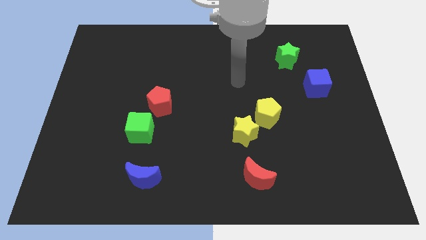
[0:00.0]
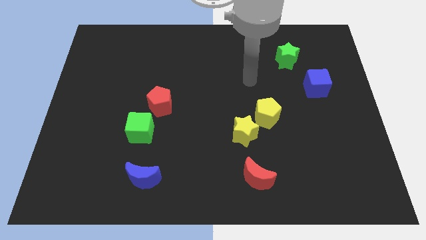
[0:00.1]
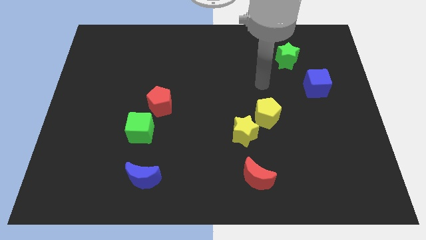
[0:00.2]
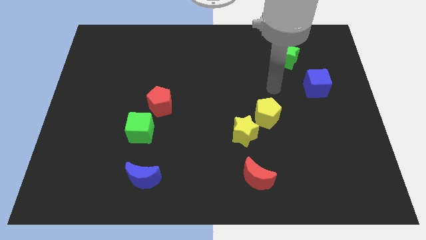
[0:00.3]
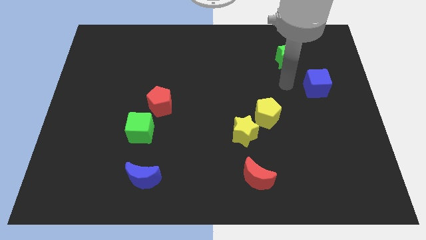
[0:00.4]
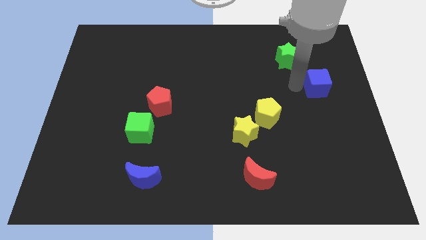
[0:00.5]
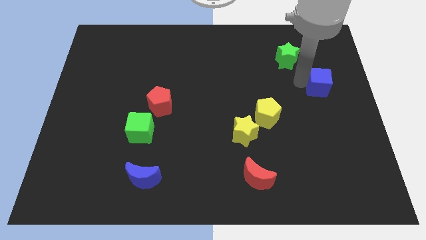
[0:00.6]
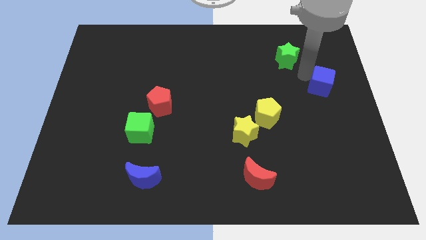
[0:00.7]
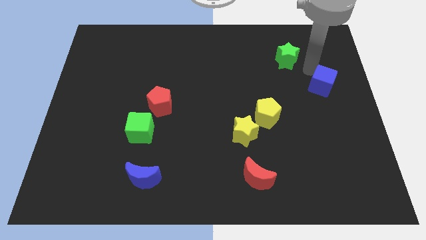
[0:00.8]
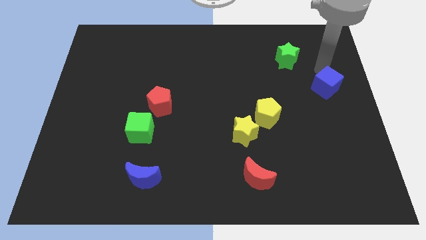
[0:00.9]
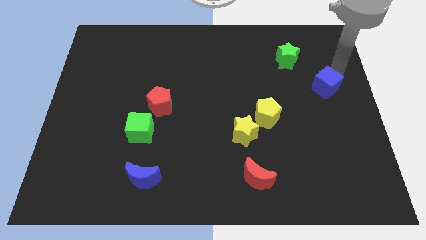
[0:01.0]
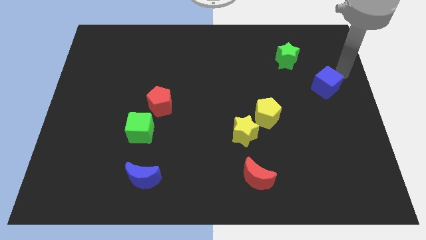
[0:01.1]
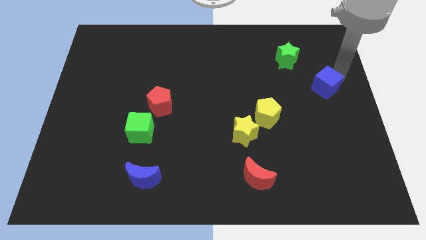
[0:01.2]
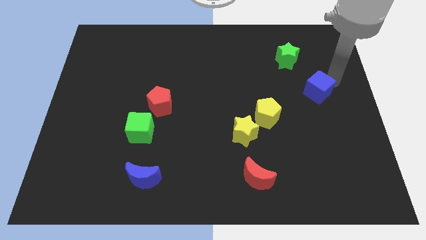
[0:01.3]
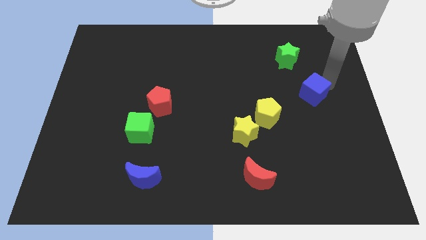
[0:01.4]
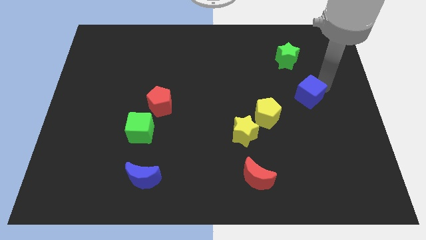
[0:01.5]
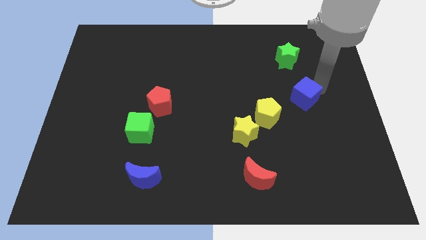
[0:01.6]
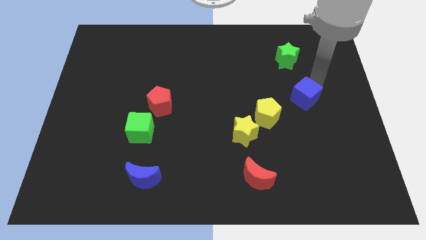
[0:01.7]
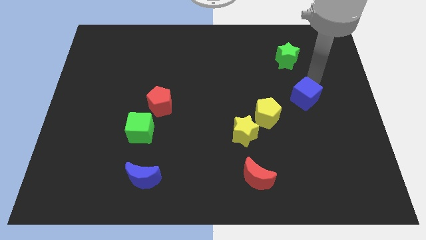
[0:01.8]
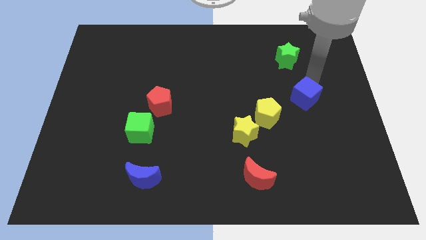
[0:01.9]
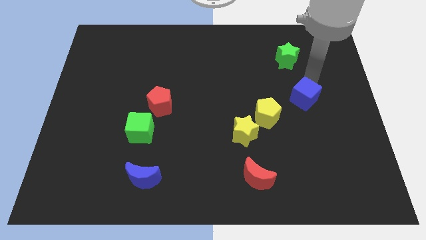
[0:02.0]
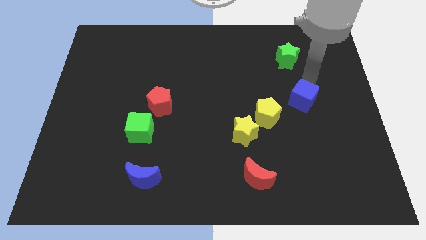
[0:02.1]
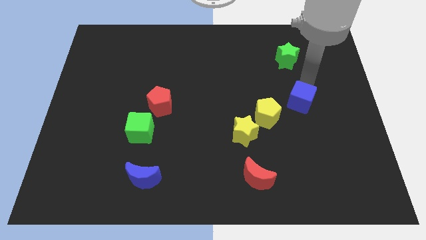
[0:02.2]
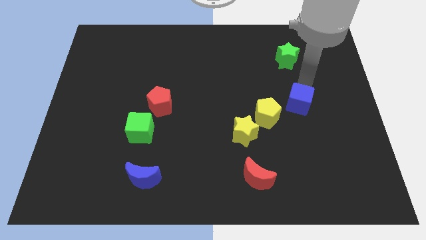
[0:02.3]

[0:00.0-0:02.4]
push the blue cube a little downwards and then left

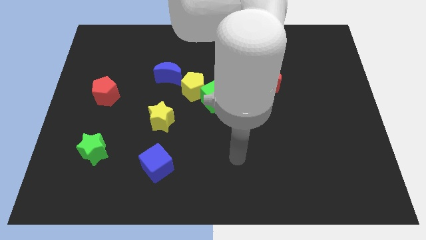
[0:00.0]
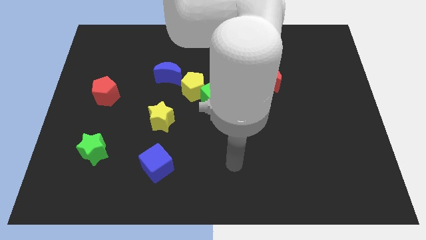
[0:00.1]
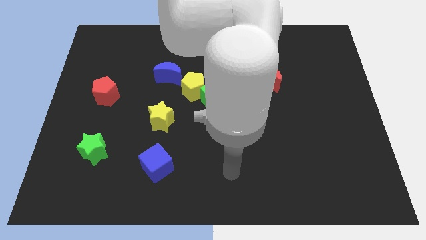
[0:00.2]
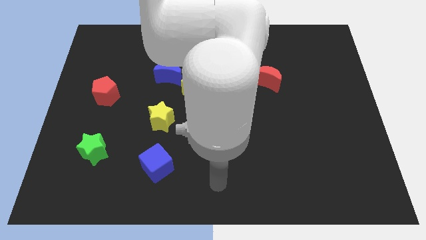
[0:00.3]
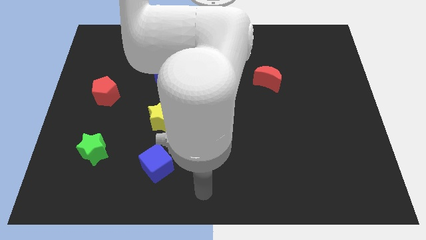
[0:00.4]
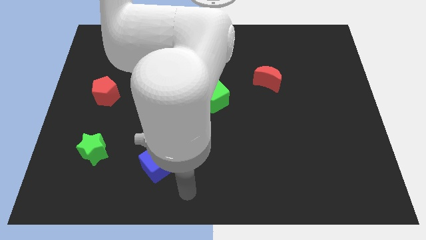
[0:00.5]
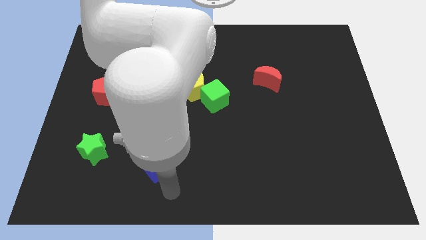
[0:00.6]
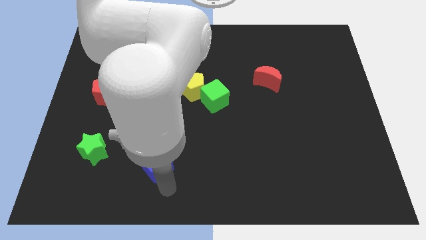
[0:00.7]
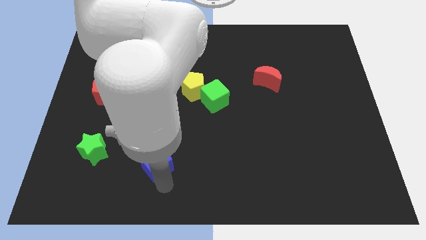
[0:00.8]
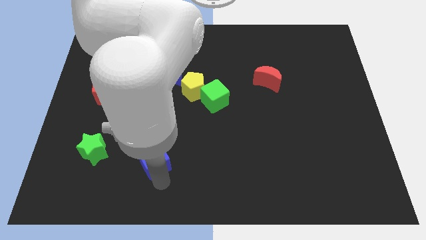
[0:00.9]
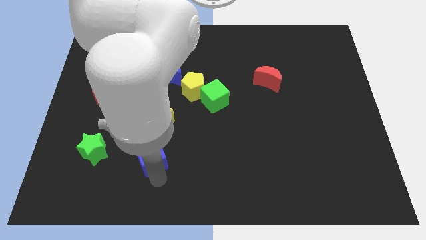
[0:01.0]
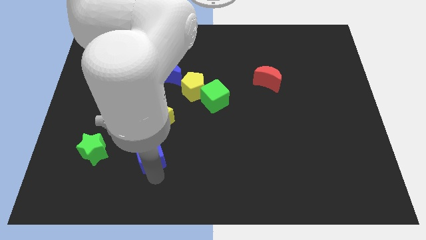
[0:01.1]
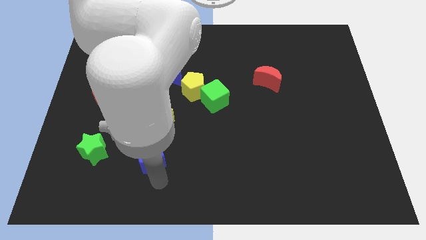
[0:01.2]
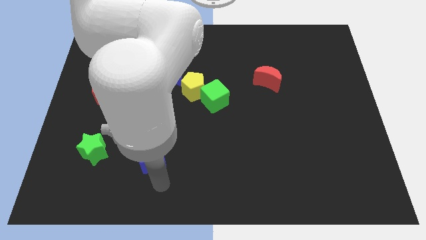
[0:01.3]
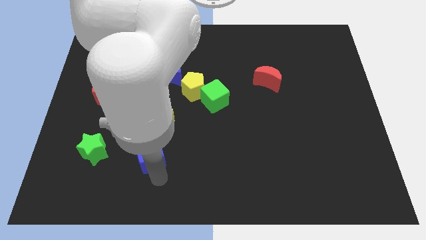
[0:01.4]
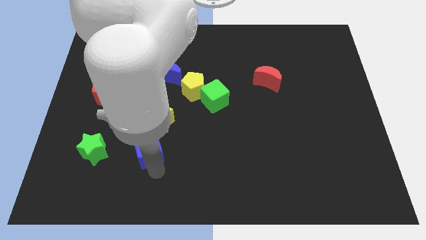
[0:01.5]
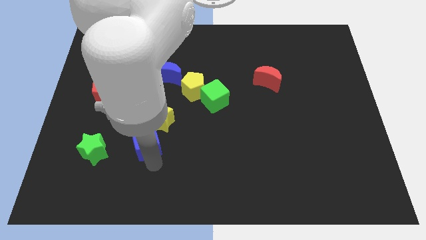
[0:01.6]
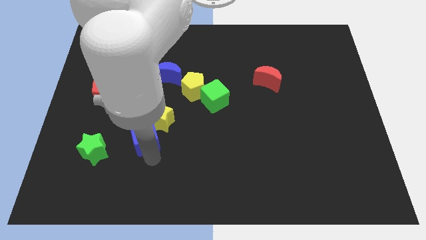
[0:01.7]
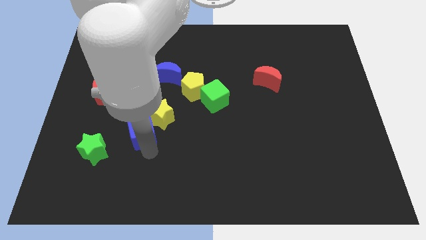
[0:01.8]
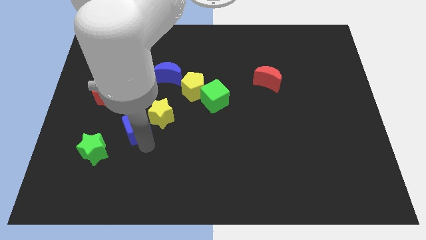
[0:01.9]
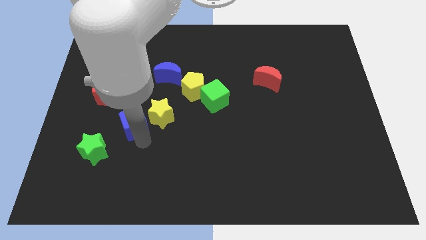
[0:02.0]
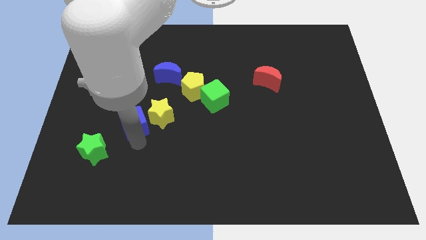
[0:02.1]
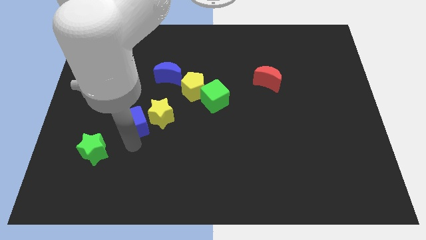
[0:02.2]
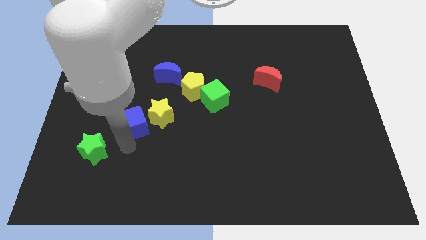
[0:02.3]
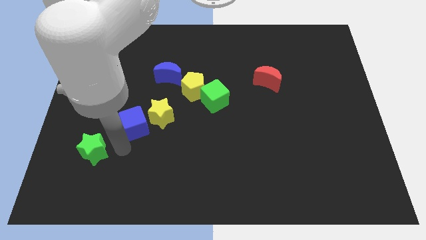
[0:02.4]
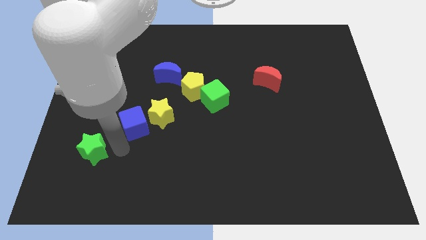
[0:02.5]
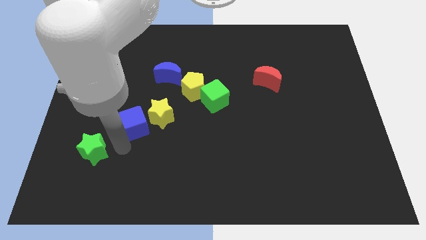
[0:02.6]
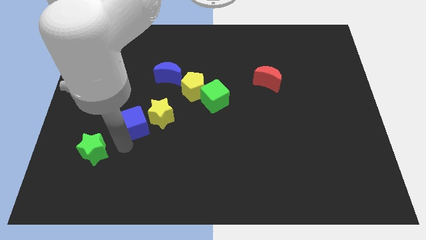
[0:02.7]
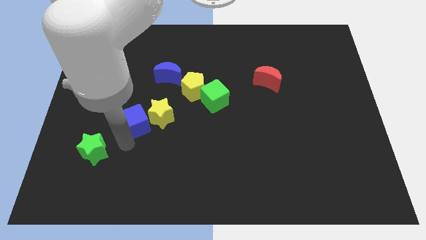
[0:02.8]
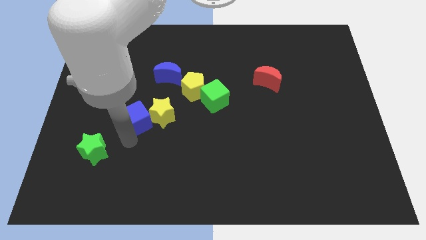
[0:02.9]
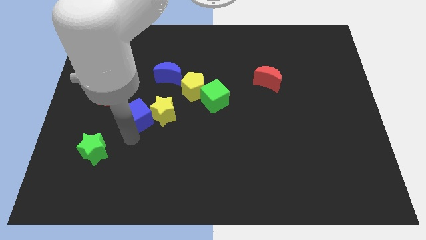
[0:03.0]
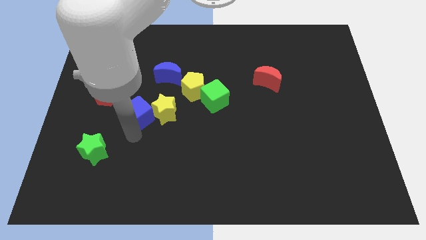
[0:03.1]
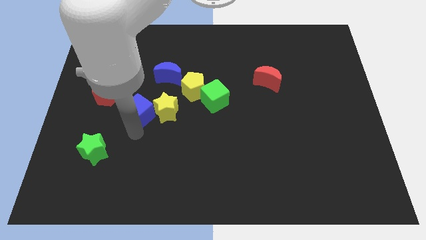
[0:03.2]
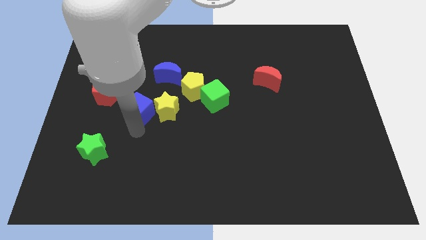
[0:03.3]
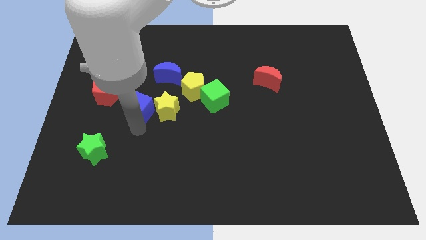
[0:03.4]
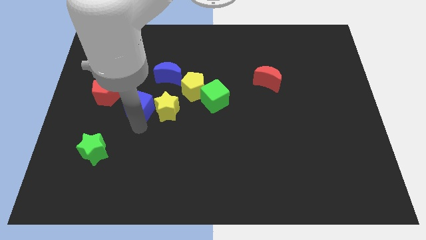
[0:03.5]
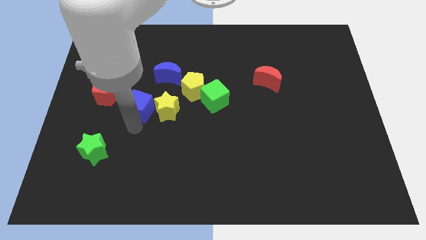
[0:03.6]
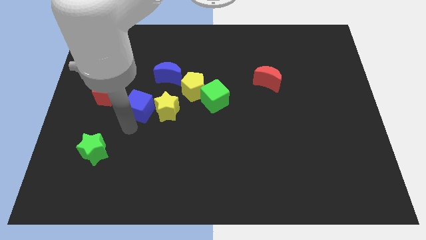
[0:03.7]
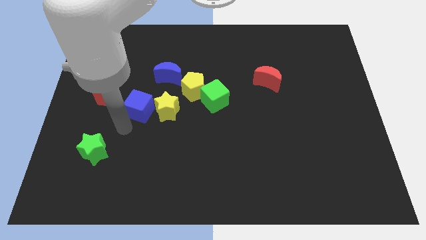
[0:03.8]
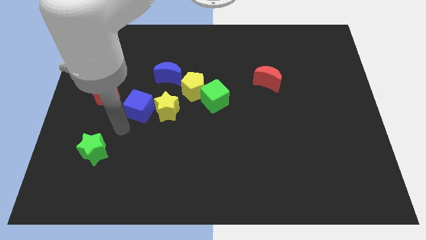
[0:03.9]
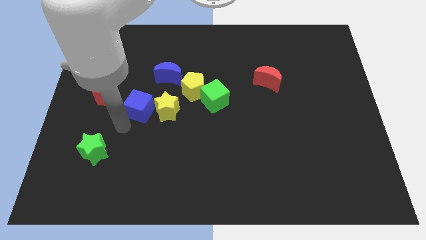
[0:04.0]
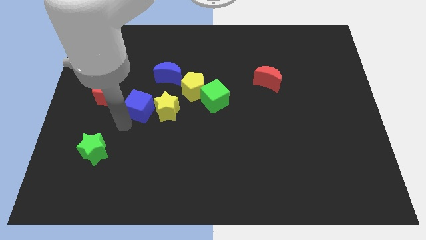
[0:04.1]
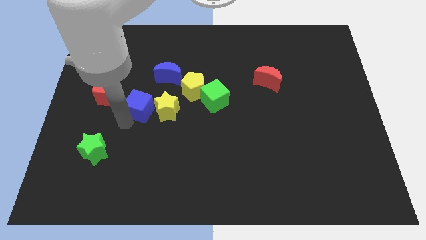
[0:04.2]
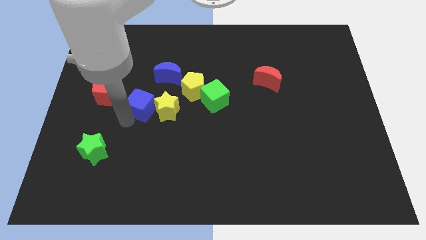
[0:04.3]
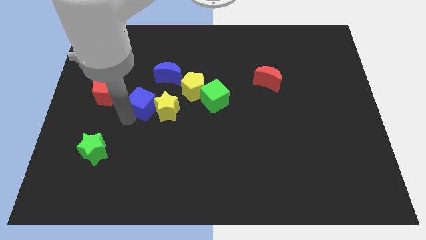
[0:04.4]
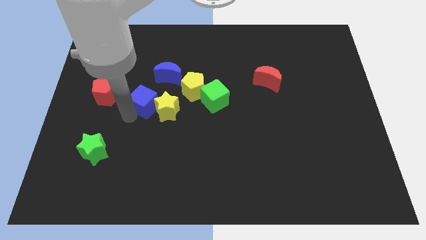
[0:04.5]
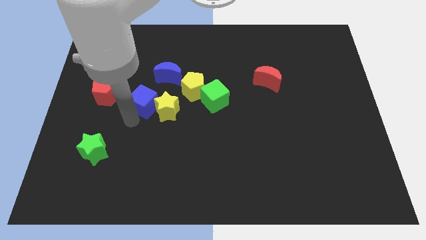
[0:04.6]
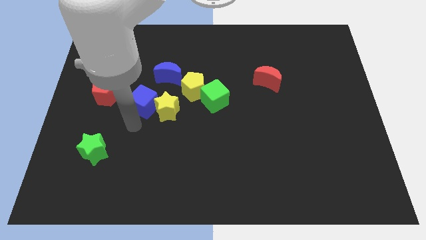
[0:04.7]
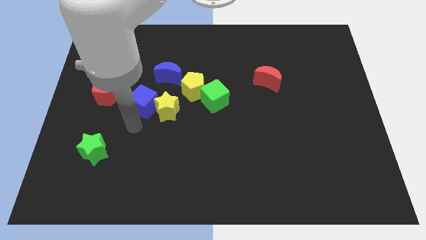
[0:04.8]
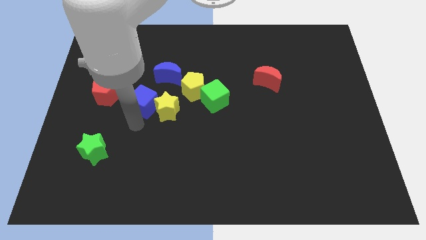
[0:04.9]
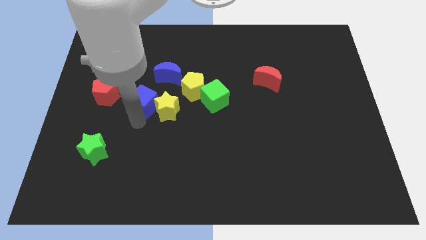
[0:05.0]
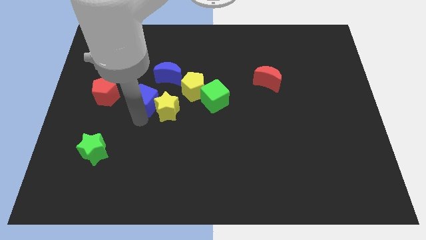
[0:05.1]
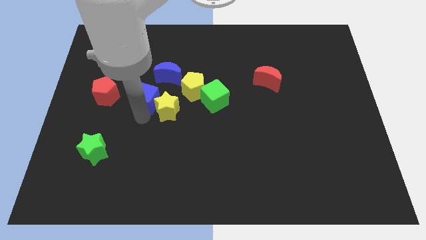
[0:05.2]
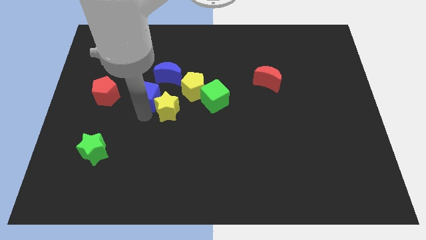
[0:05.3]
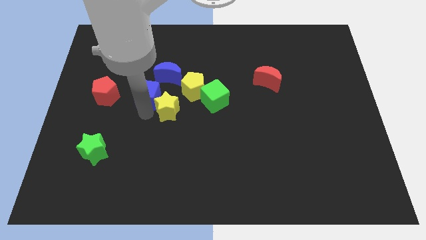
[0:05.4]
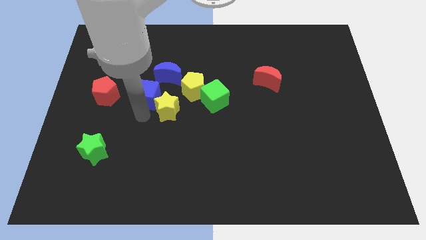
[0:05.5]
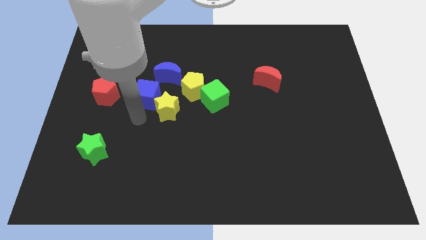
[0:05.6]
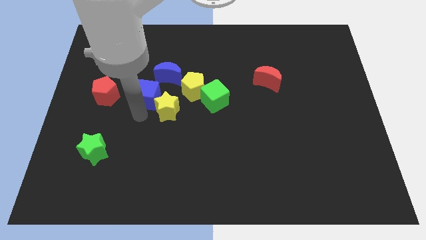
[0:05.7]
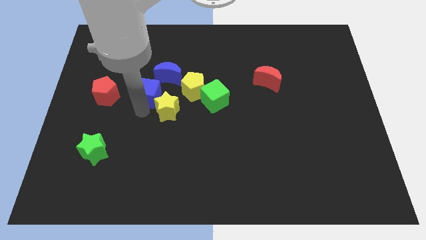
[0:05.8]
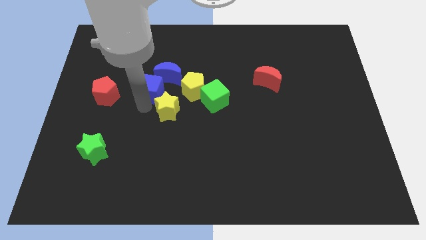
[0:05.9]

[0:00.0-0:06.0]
push the blue cube up
